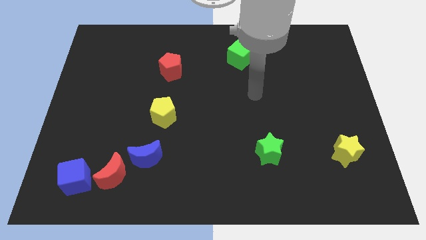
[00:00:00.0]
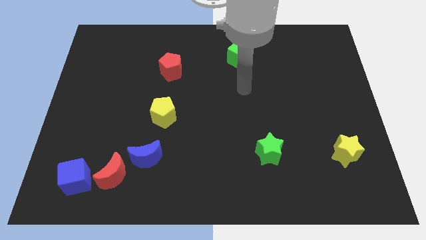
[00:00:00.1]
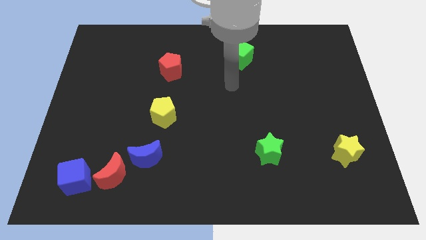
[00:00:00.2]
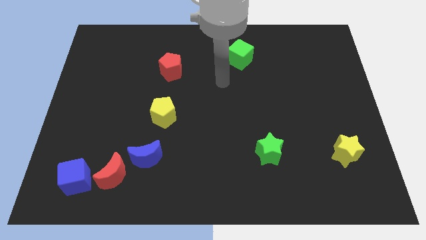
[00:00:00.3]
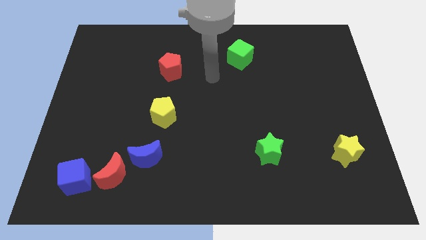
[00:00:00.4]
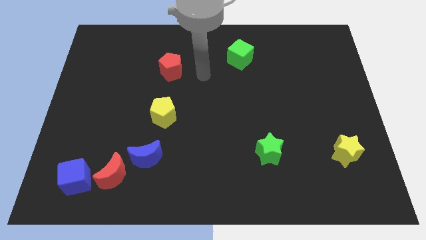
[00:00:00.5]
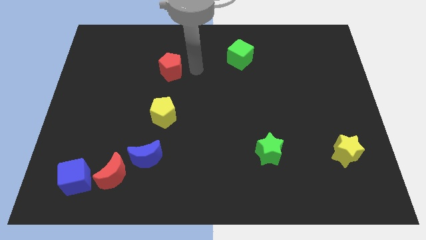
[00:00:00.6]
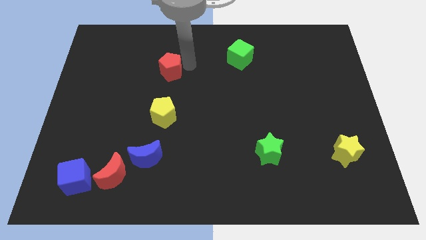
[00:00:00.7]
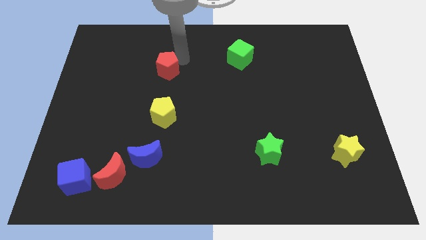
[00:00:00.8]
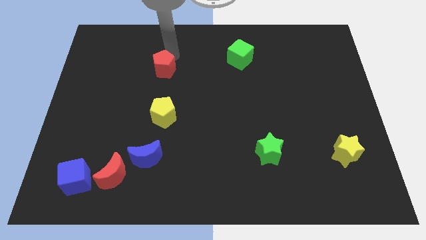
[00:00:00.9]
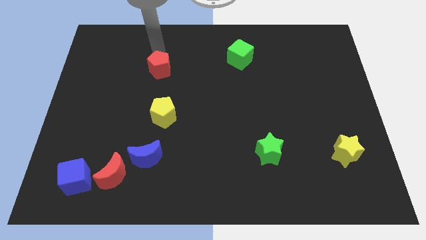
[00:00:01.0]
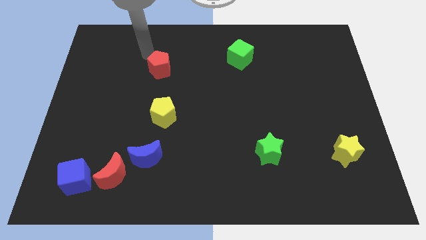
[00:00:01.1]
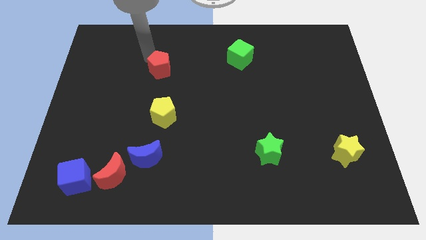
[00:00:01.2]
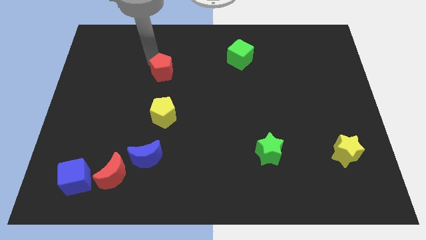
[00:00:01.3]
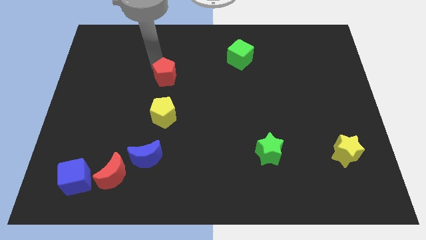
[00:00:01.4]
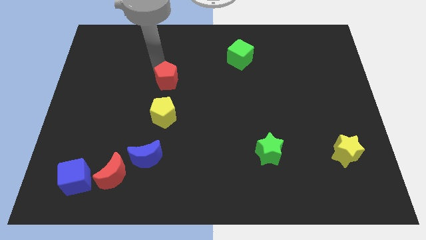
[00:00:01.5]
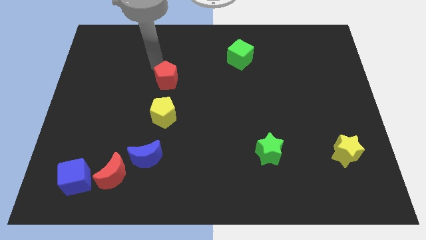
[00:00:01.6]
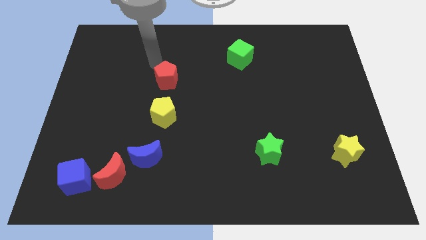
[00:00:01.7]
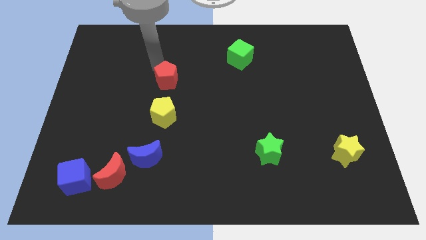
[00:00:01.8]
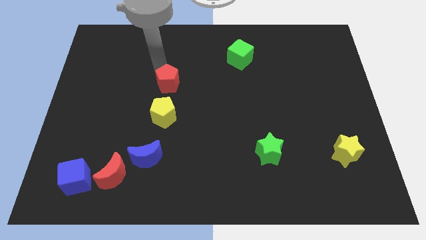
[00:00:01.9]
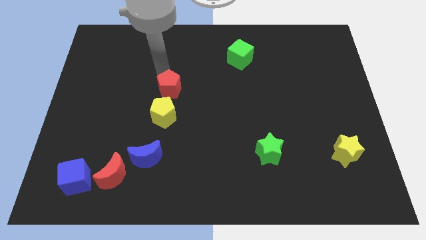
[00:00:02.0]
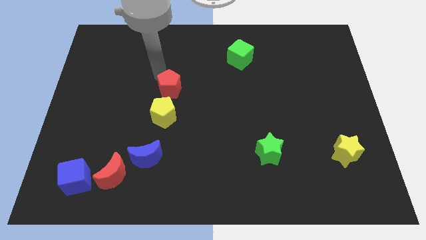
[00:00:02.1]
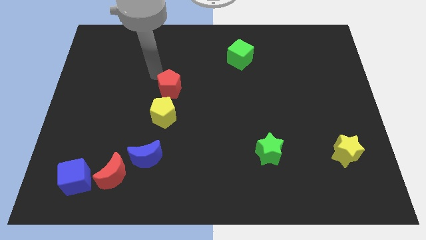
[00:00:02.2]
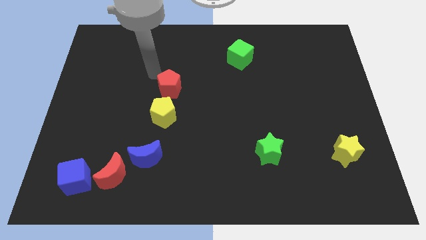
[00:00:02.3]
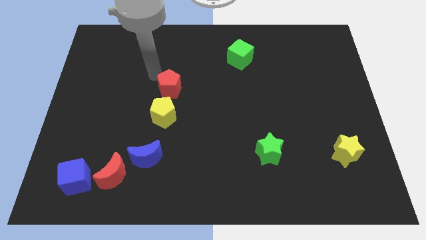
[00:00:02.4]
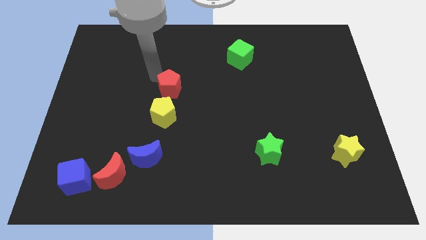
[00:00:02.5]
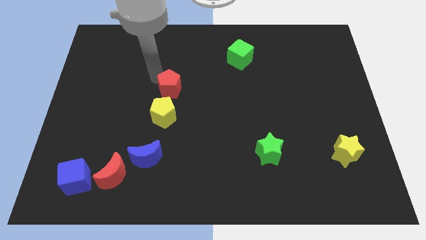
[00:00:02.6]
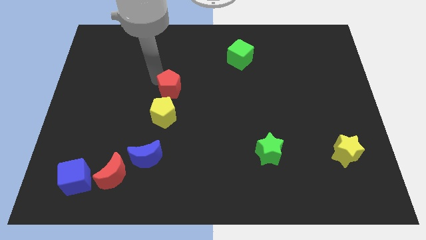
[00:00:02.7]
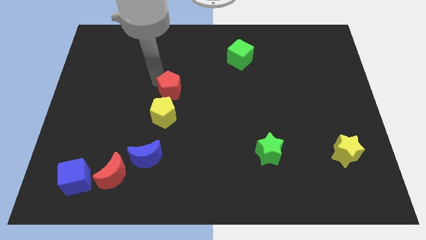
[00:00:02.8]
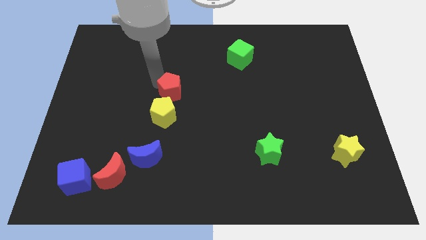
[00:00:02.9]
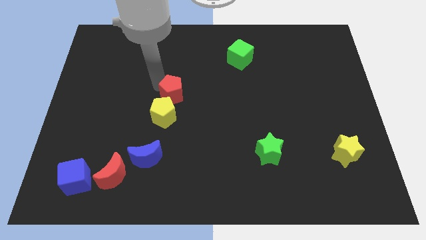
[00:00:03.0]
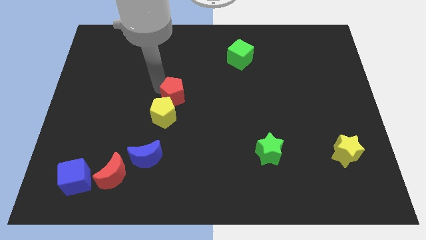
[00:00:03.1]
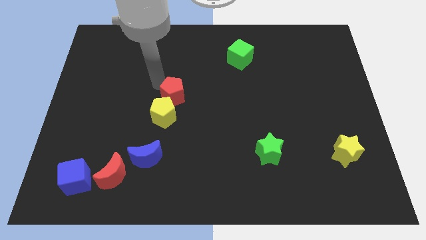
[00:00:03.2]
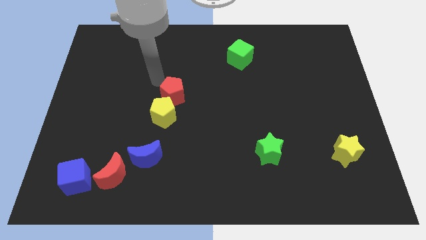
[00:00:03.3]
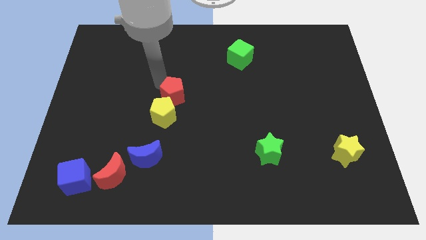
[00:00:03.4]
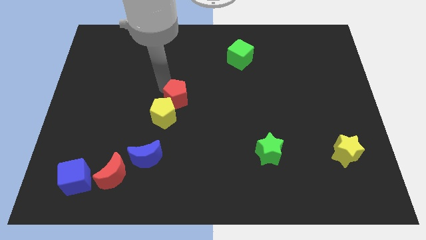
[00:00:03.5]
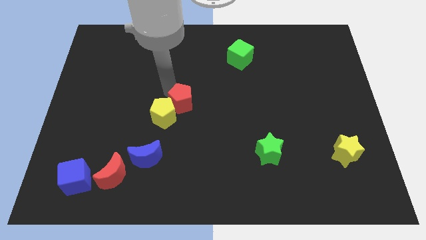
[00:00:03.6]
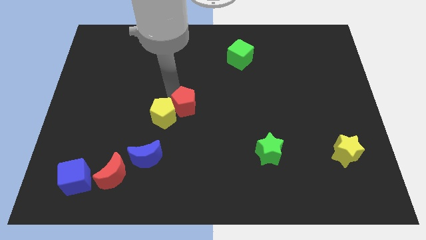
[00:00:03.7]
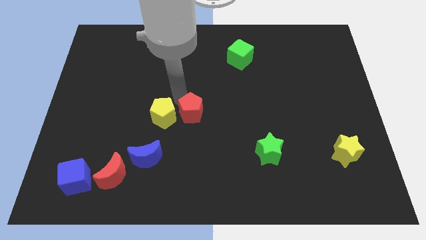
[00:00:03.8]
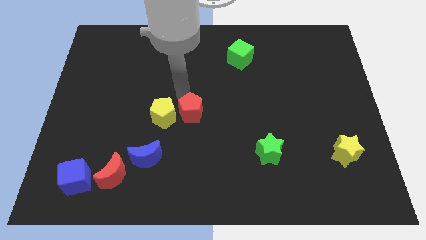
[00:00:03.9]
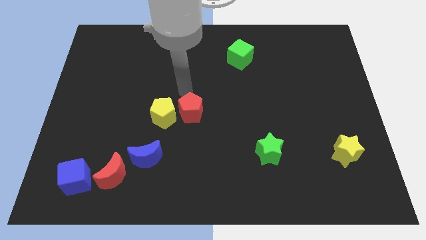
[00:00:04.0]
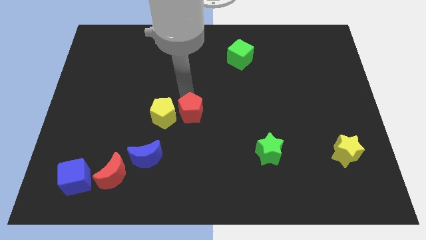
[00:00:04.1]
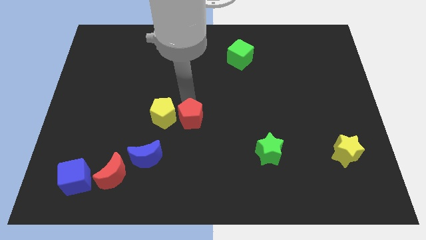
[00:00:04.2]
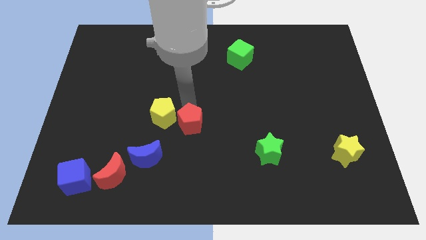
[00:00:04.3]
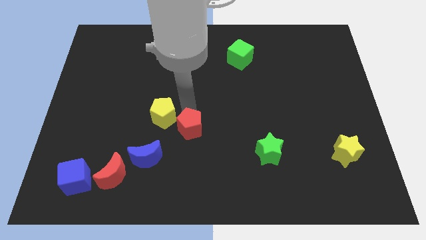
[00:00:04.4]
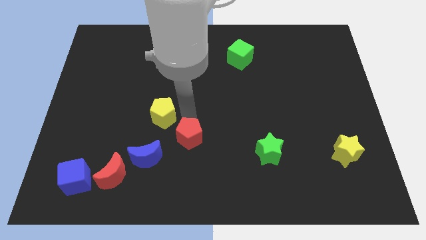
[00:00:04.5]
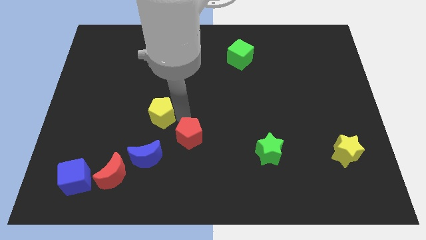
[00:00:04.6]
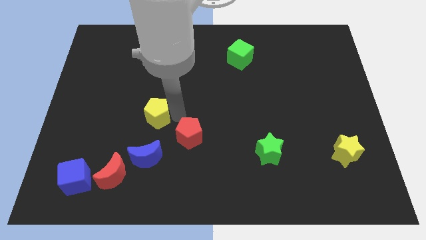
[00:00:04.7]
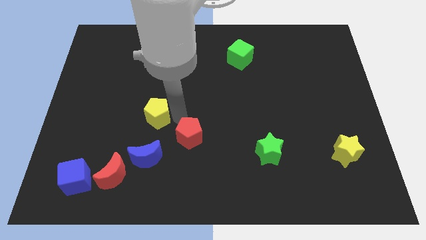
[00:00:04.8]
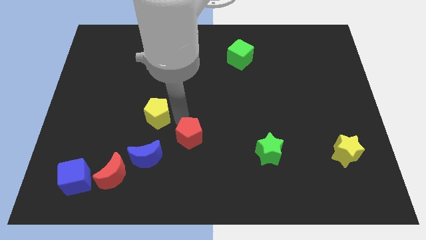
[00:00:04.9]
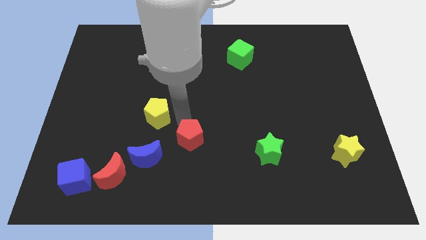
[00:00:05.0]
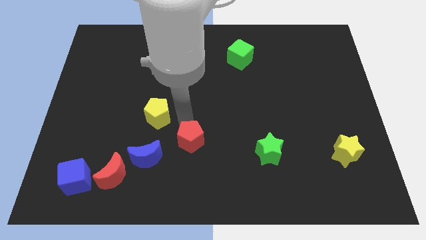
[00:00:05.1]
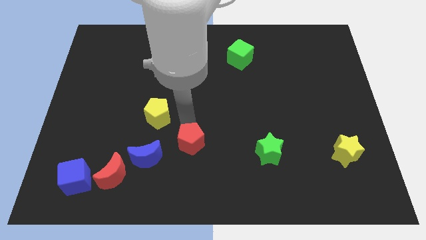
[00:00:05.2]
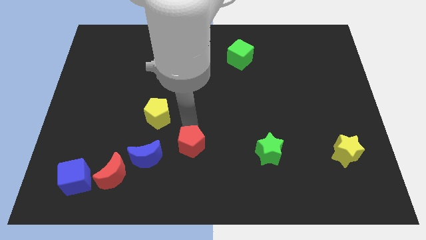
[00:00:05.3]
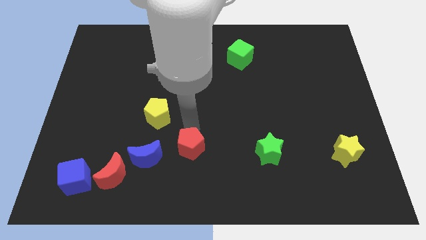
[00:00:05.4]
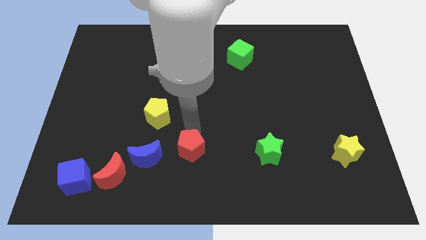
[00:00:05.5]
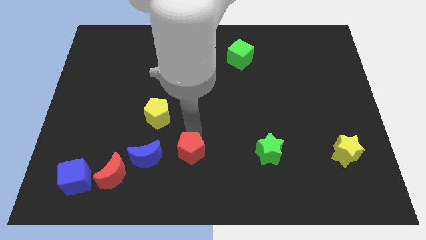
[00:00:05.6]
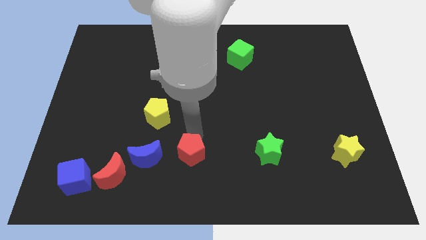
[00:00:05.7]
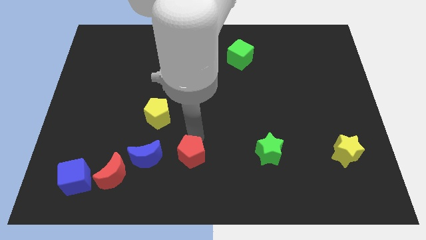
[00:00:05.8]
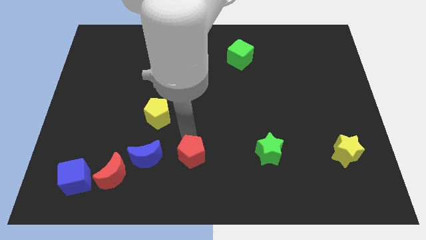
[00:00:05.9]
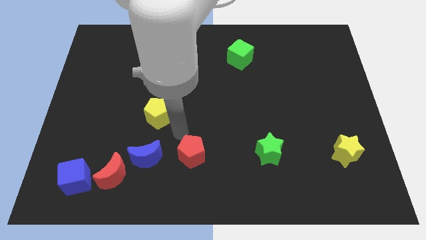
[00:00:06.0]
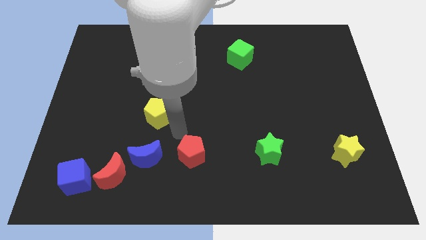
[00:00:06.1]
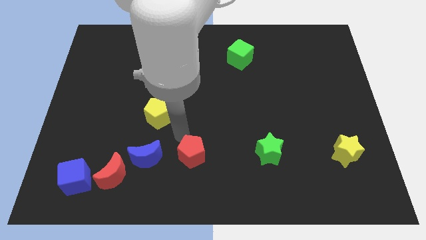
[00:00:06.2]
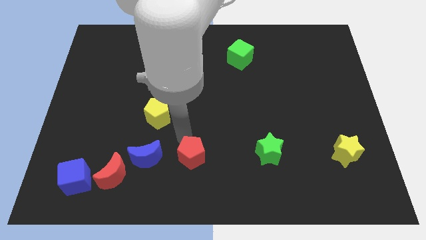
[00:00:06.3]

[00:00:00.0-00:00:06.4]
push the red pentagon to the bottom side
